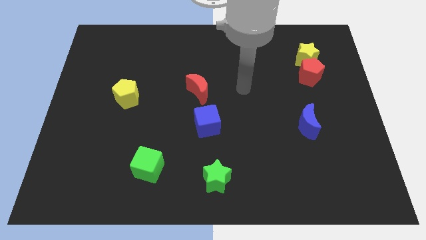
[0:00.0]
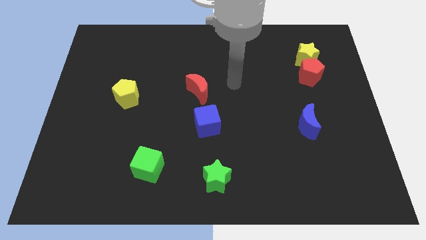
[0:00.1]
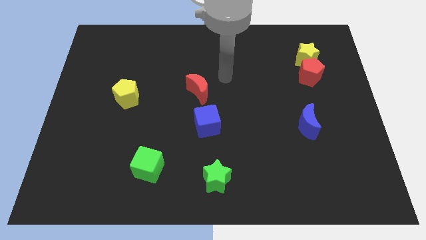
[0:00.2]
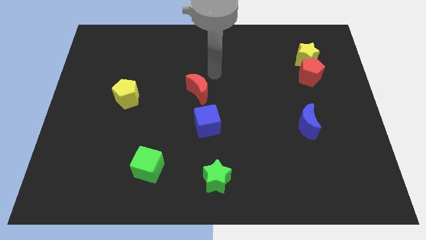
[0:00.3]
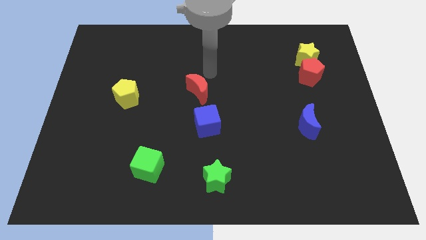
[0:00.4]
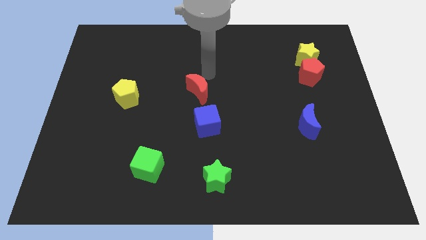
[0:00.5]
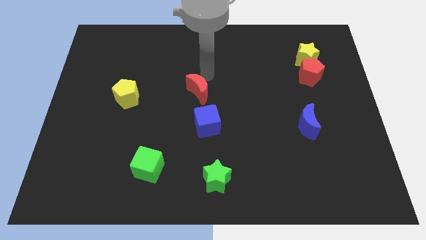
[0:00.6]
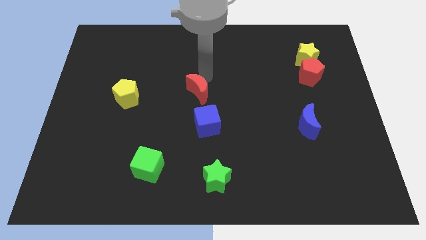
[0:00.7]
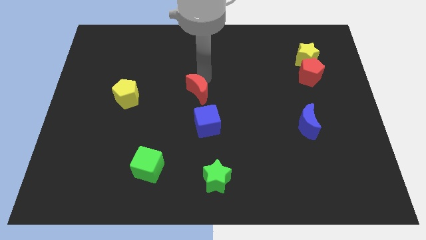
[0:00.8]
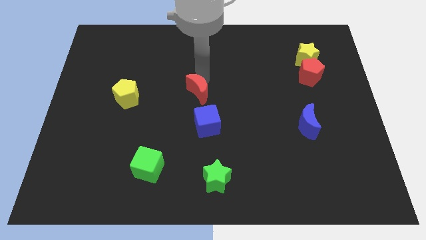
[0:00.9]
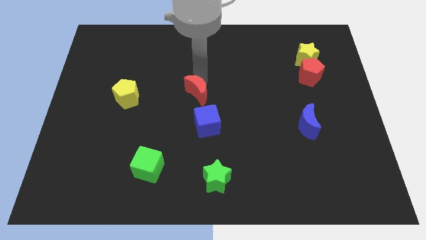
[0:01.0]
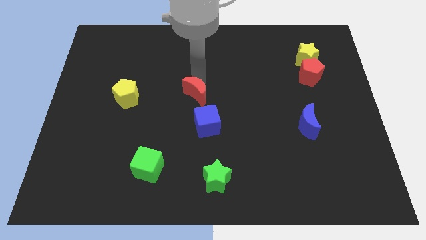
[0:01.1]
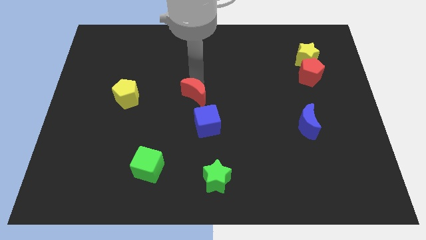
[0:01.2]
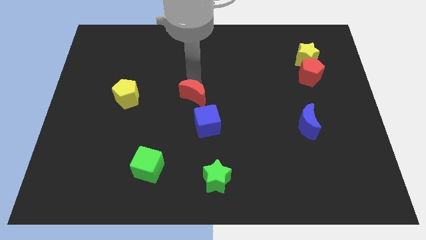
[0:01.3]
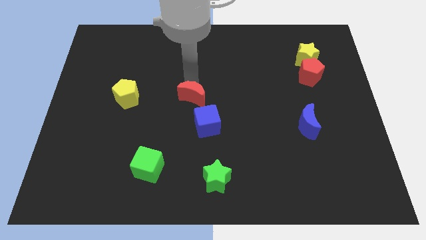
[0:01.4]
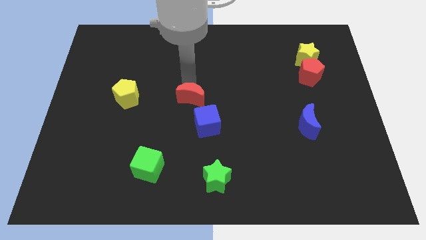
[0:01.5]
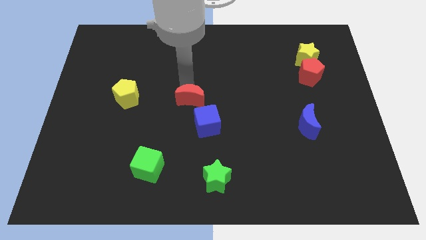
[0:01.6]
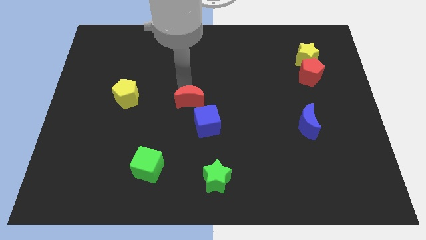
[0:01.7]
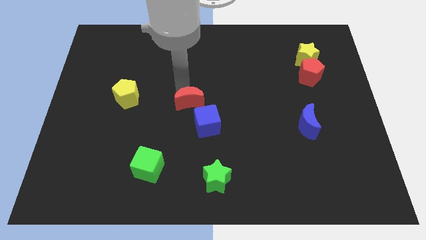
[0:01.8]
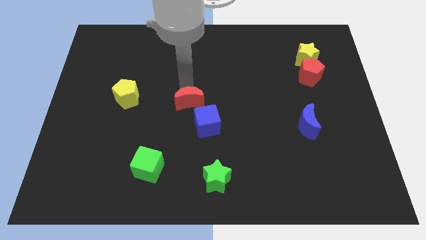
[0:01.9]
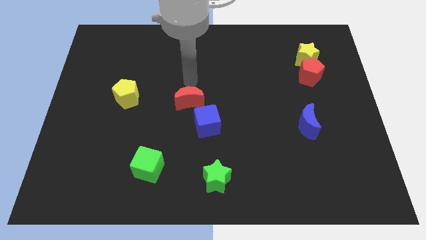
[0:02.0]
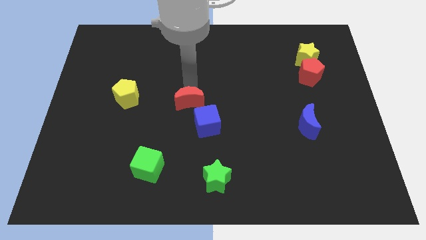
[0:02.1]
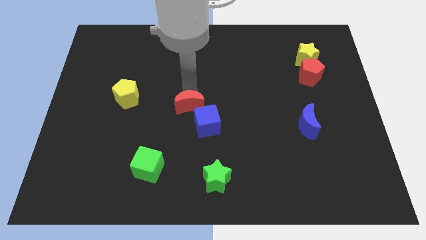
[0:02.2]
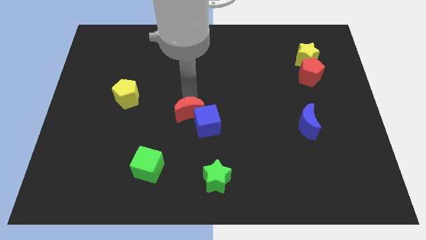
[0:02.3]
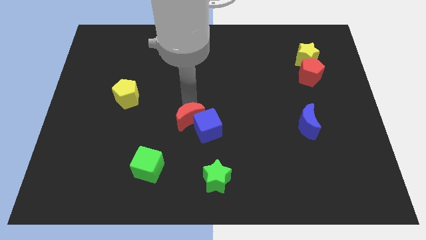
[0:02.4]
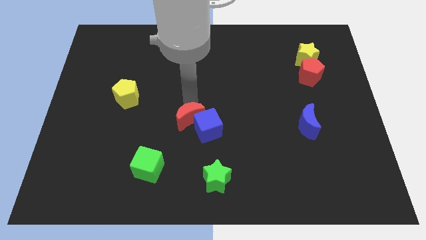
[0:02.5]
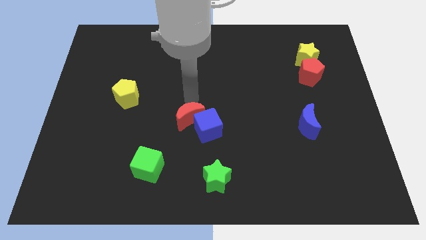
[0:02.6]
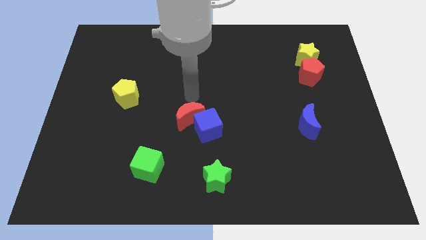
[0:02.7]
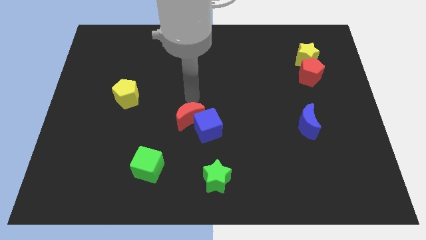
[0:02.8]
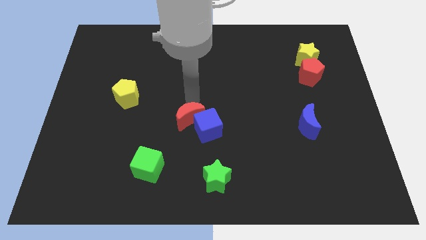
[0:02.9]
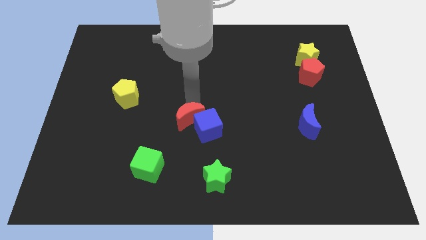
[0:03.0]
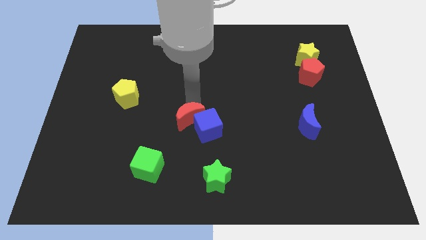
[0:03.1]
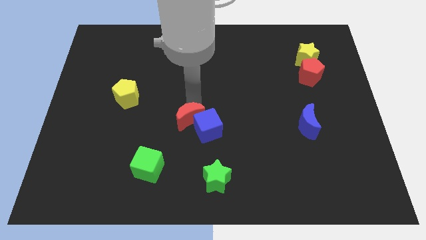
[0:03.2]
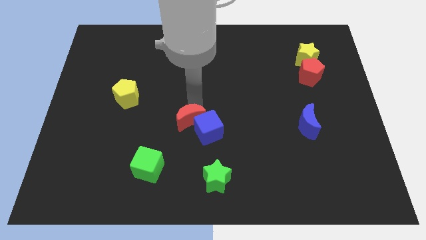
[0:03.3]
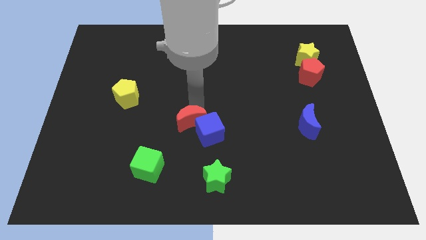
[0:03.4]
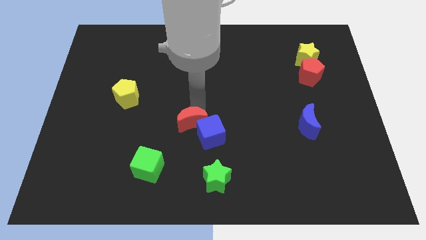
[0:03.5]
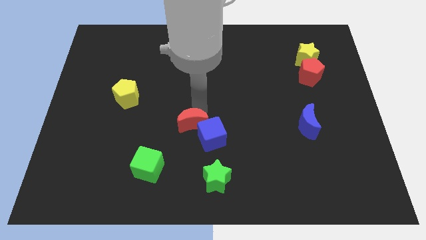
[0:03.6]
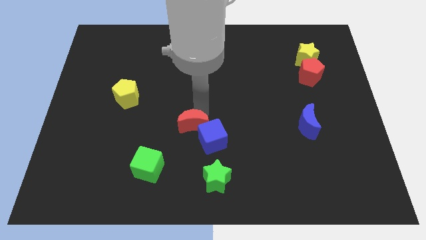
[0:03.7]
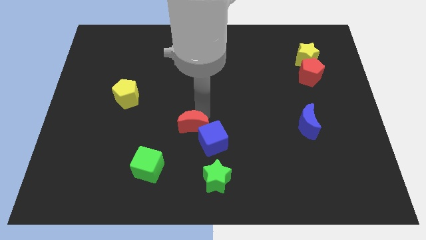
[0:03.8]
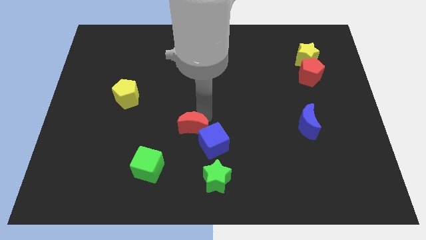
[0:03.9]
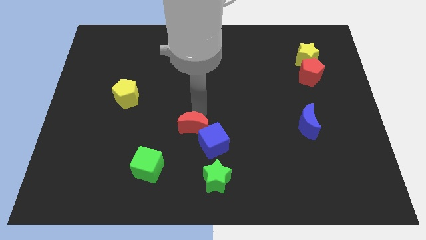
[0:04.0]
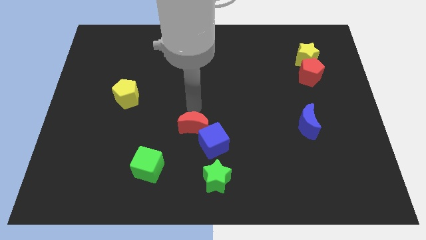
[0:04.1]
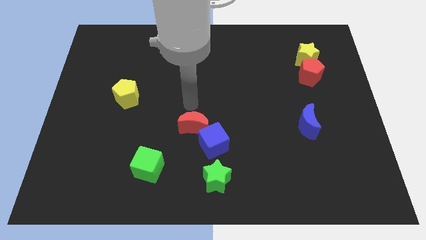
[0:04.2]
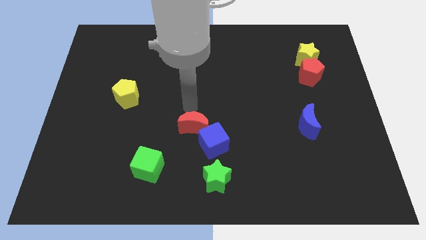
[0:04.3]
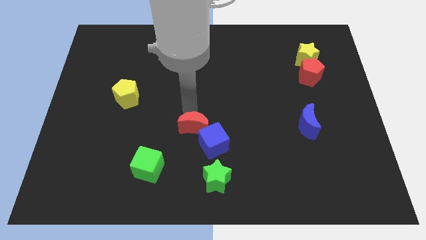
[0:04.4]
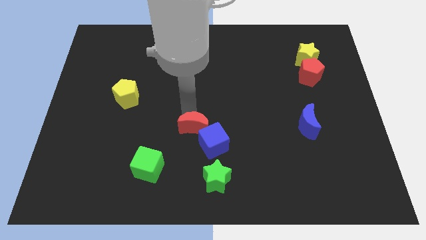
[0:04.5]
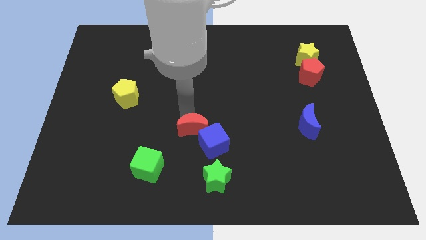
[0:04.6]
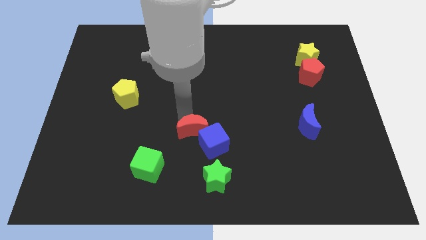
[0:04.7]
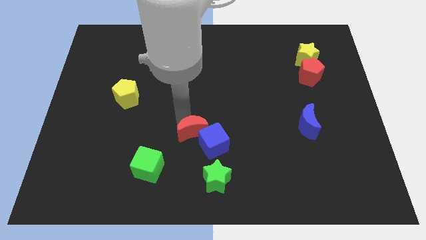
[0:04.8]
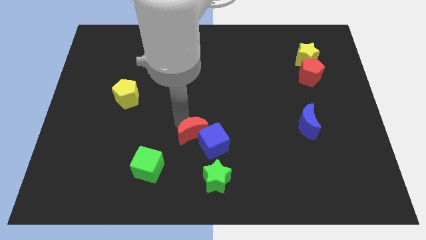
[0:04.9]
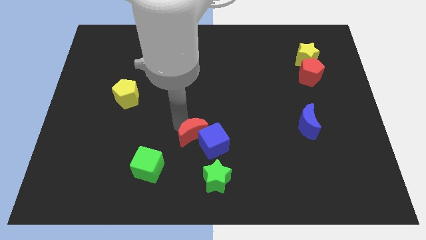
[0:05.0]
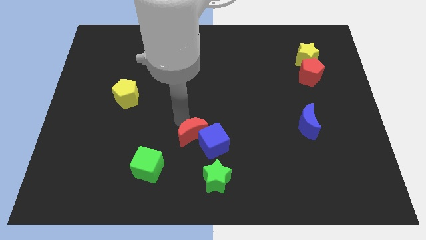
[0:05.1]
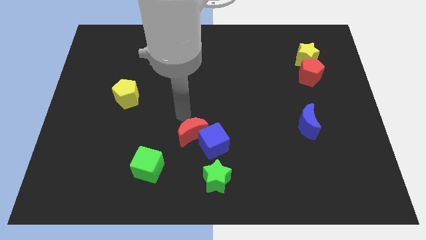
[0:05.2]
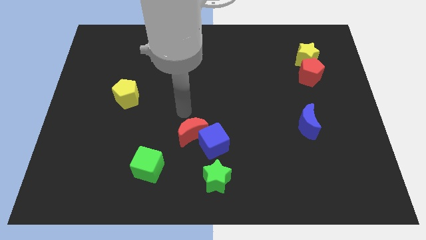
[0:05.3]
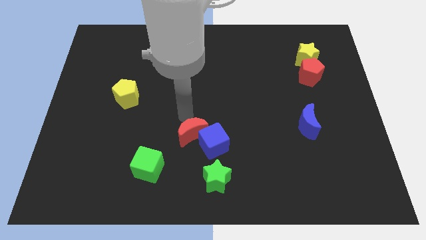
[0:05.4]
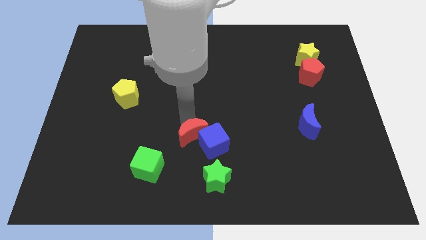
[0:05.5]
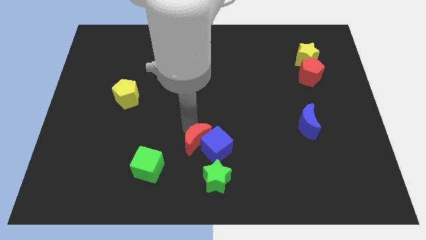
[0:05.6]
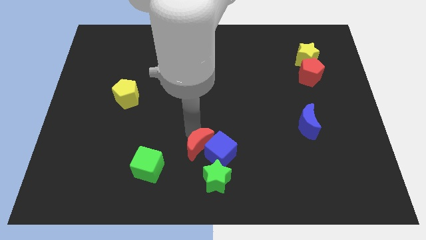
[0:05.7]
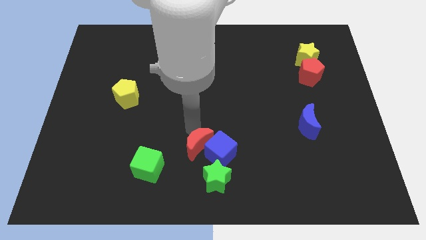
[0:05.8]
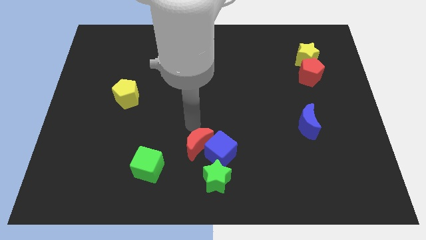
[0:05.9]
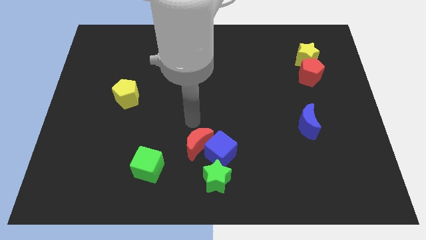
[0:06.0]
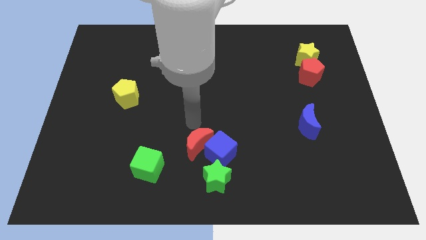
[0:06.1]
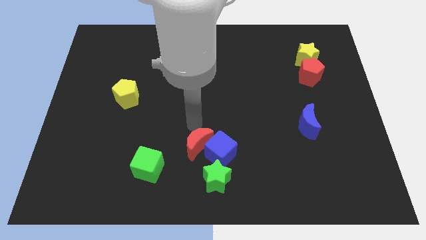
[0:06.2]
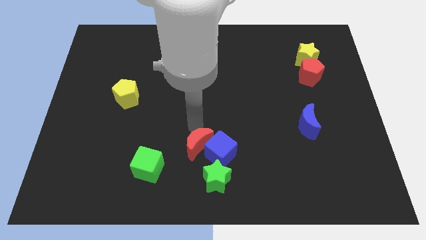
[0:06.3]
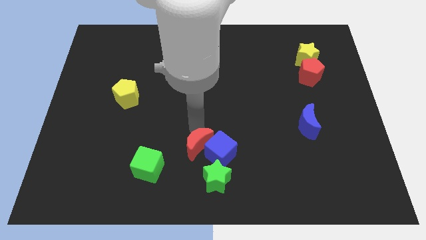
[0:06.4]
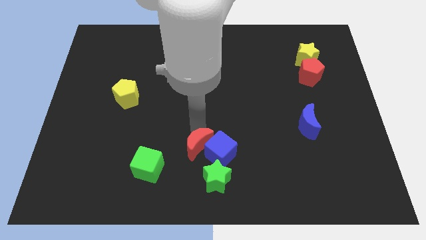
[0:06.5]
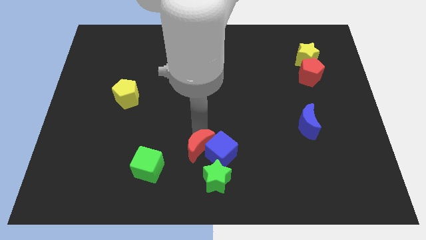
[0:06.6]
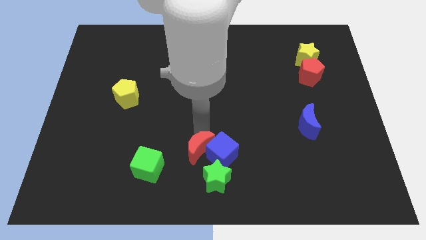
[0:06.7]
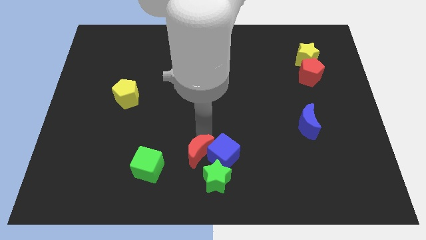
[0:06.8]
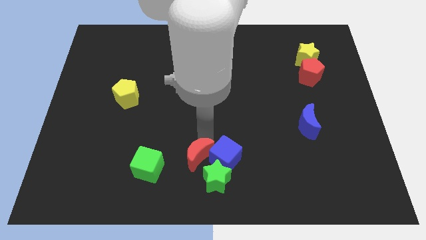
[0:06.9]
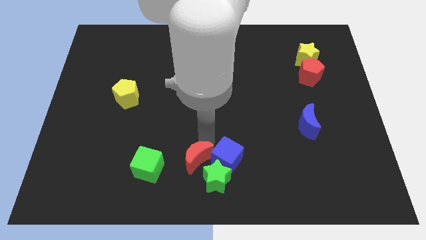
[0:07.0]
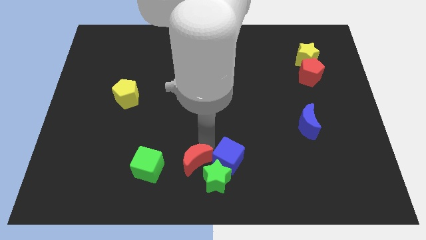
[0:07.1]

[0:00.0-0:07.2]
move the red moon close to the green star
